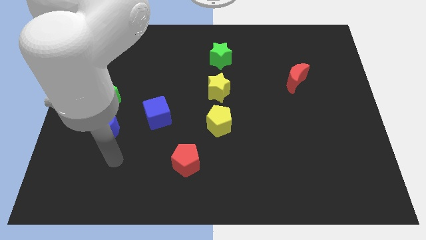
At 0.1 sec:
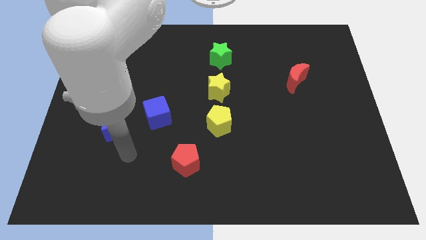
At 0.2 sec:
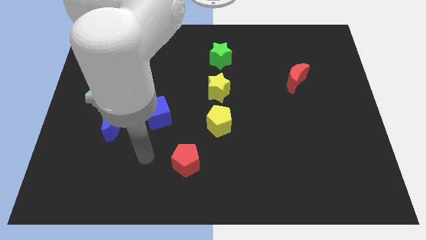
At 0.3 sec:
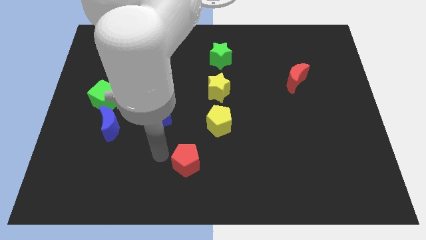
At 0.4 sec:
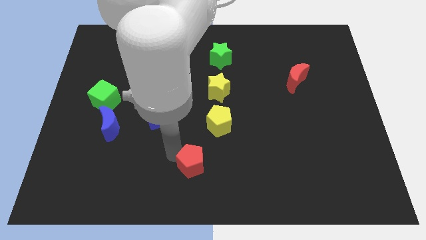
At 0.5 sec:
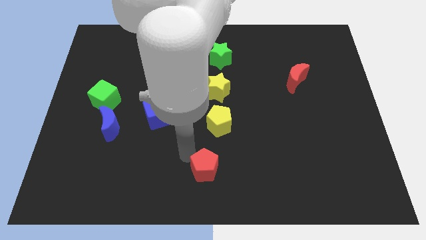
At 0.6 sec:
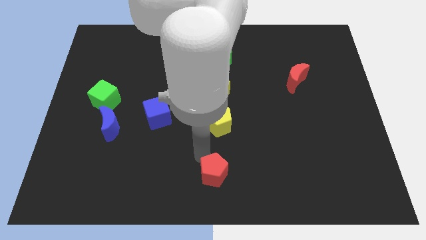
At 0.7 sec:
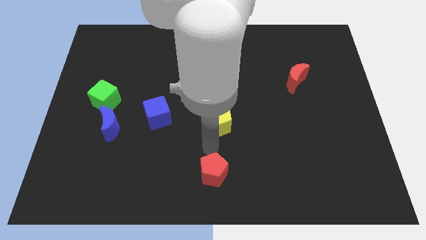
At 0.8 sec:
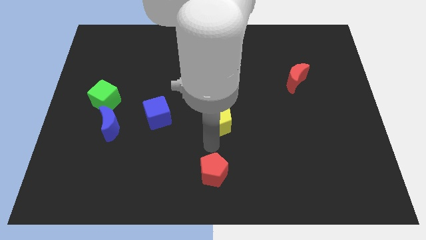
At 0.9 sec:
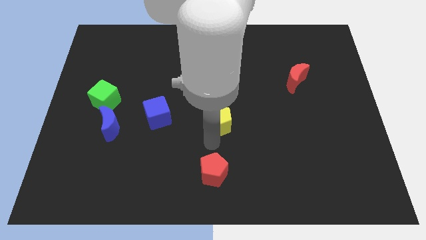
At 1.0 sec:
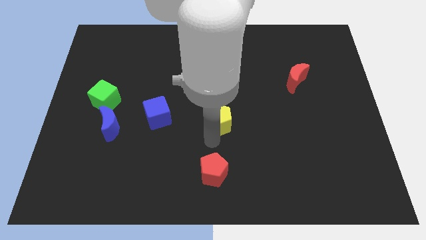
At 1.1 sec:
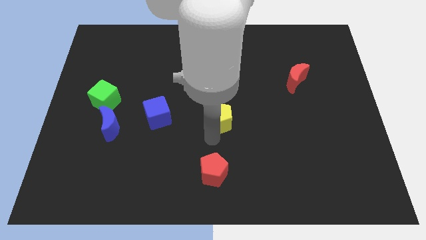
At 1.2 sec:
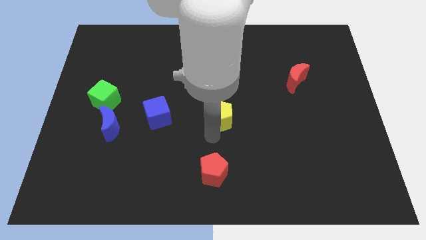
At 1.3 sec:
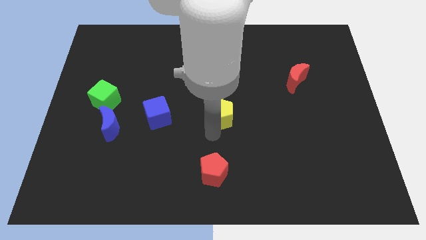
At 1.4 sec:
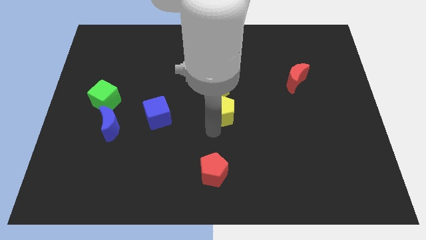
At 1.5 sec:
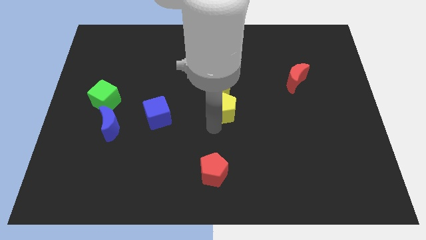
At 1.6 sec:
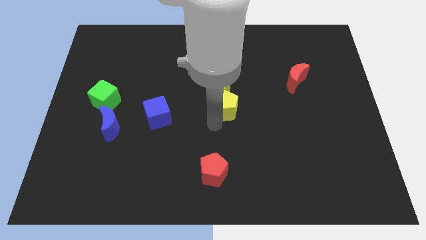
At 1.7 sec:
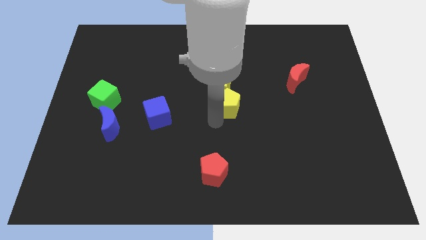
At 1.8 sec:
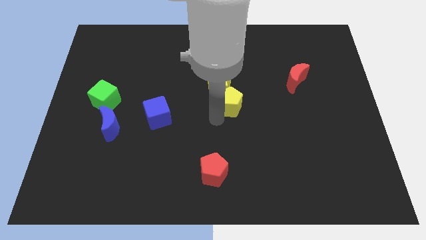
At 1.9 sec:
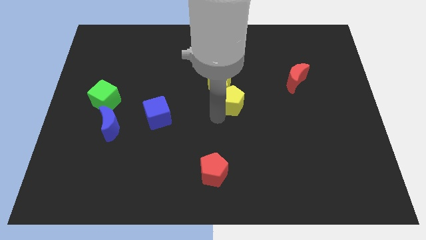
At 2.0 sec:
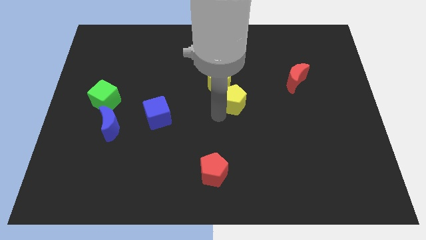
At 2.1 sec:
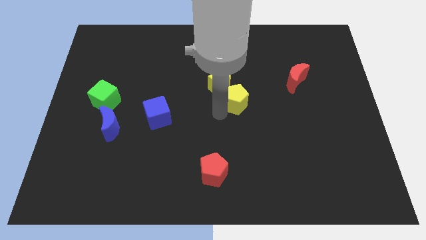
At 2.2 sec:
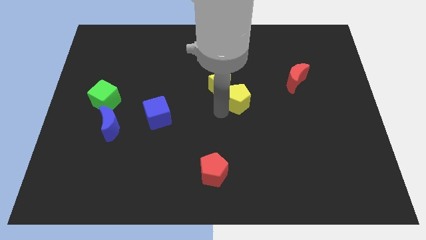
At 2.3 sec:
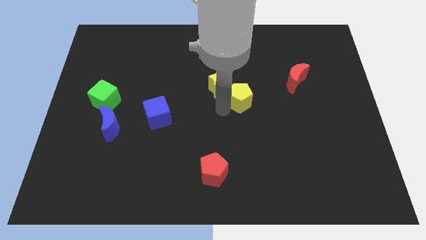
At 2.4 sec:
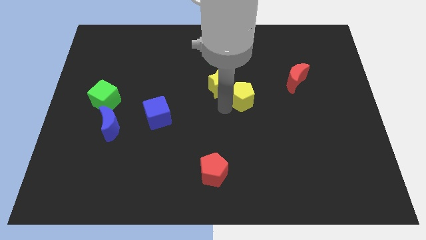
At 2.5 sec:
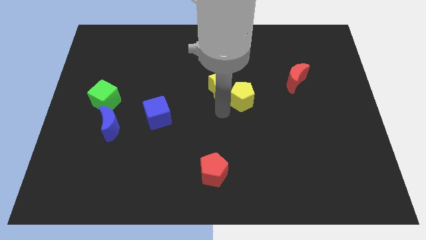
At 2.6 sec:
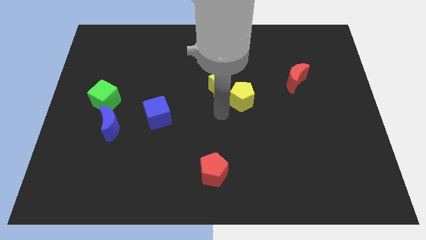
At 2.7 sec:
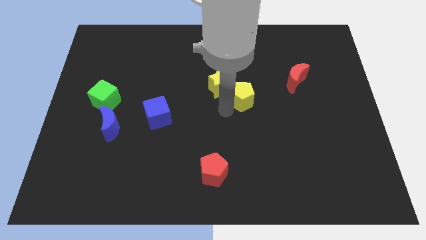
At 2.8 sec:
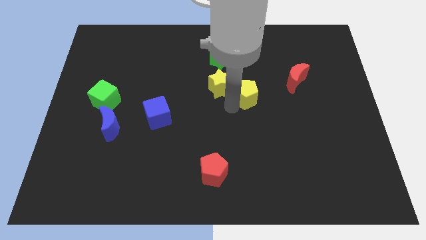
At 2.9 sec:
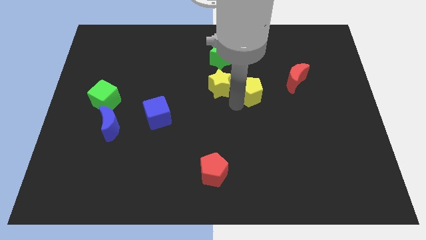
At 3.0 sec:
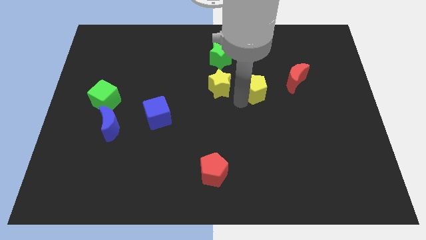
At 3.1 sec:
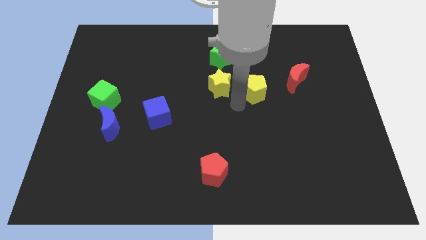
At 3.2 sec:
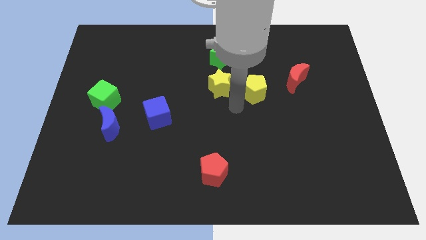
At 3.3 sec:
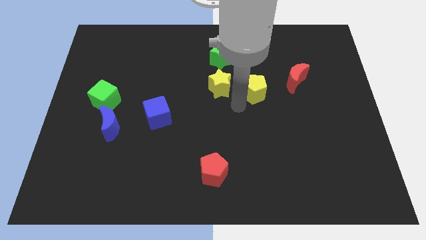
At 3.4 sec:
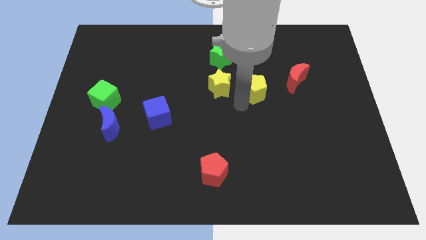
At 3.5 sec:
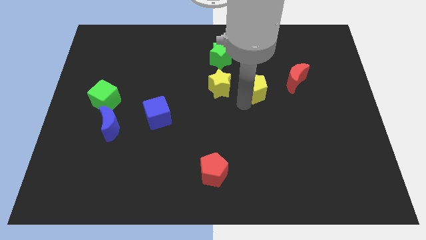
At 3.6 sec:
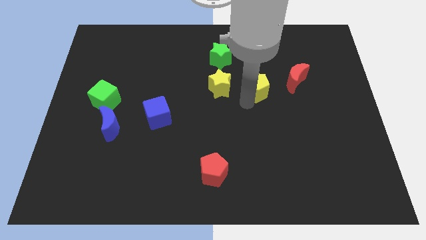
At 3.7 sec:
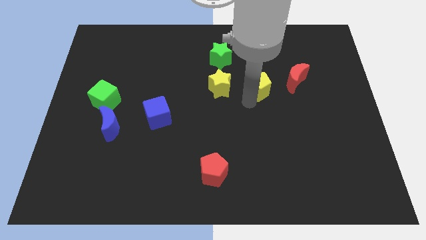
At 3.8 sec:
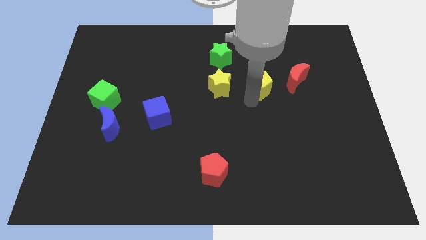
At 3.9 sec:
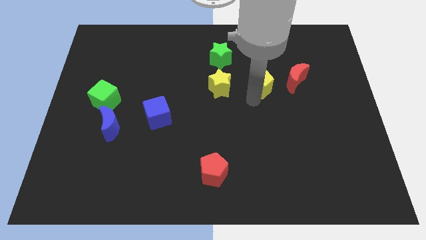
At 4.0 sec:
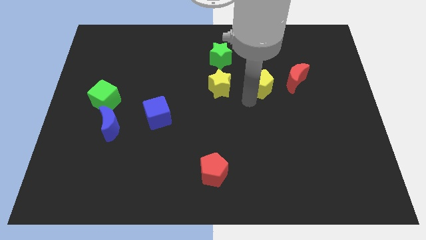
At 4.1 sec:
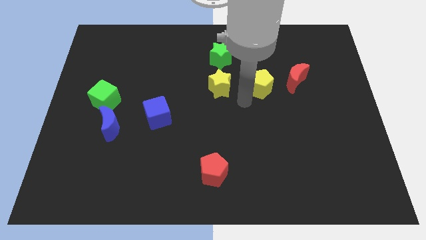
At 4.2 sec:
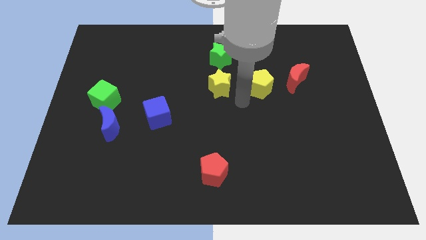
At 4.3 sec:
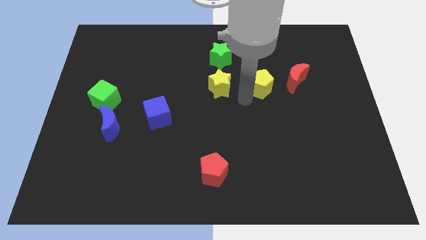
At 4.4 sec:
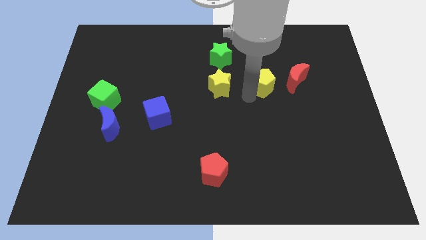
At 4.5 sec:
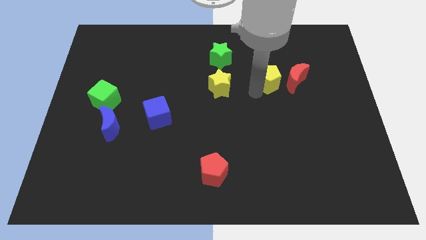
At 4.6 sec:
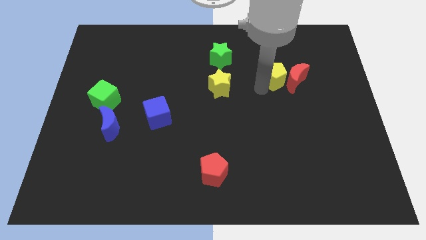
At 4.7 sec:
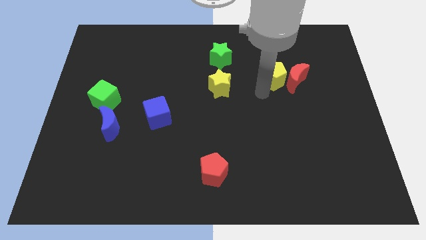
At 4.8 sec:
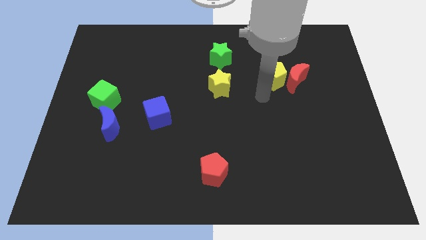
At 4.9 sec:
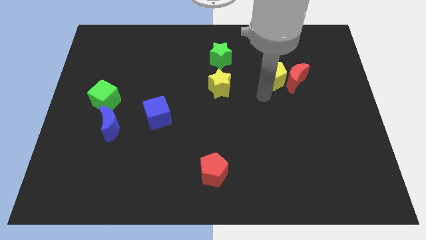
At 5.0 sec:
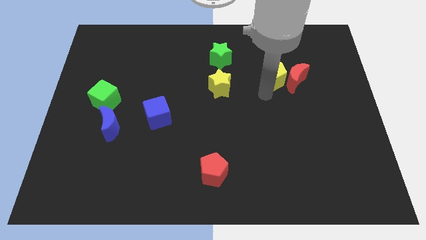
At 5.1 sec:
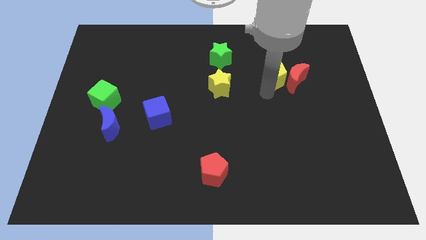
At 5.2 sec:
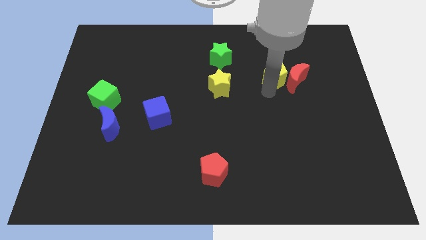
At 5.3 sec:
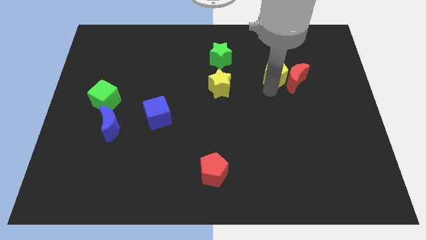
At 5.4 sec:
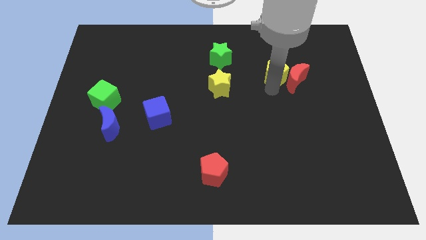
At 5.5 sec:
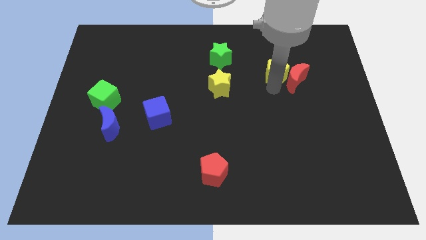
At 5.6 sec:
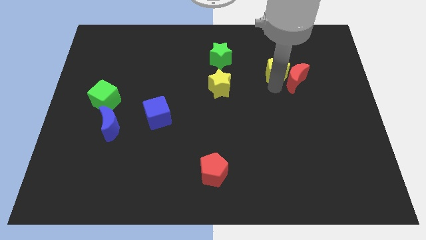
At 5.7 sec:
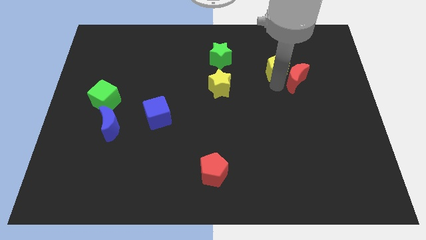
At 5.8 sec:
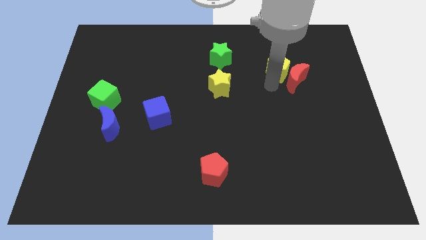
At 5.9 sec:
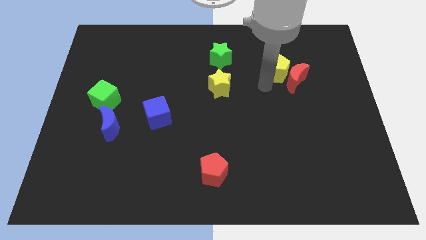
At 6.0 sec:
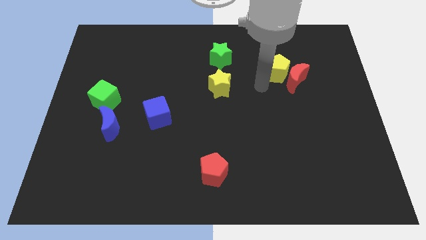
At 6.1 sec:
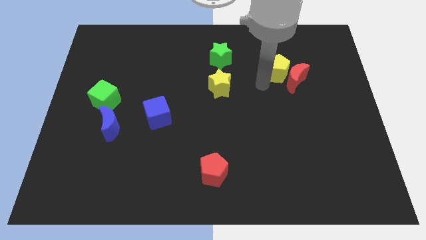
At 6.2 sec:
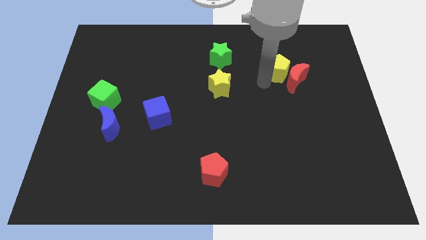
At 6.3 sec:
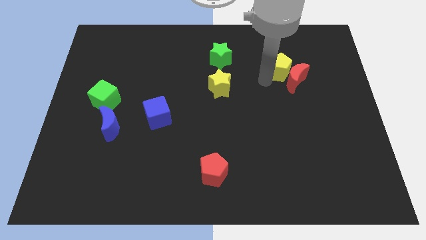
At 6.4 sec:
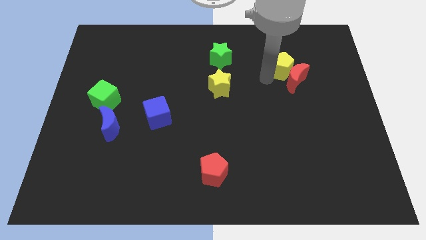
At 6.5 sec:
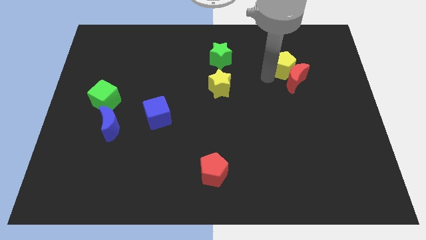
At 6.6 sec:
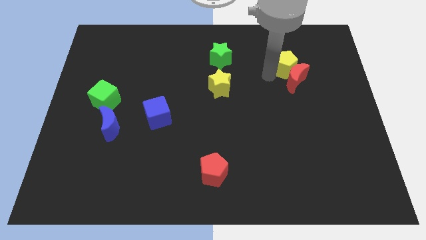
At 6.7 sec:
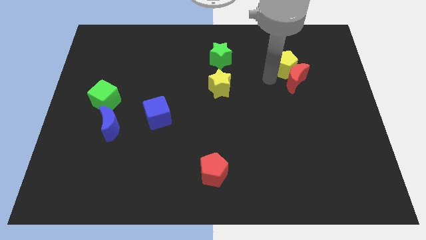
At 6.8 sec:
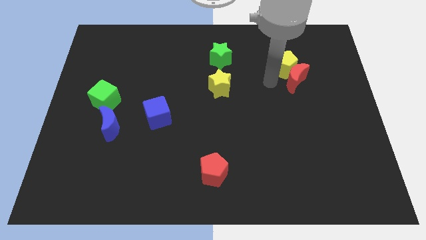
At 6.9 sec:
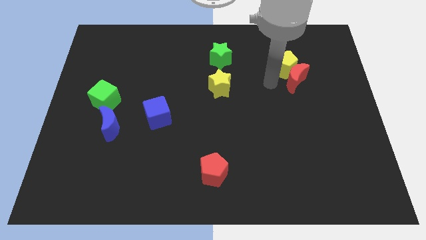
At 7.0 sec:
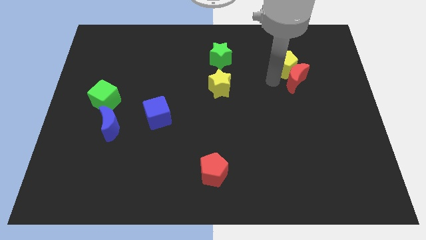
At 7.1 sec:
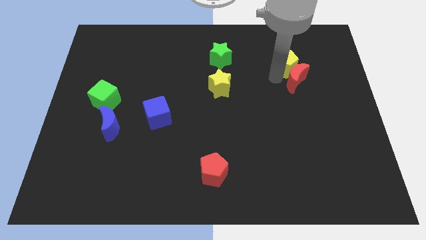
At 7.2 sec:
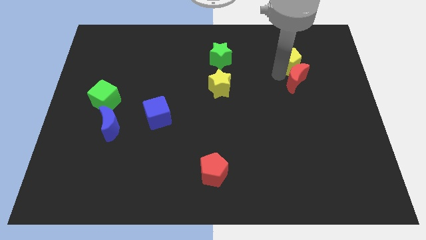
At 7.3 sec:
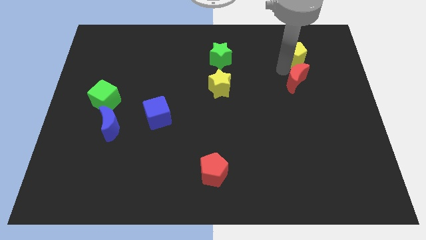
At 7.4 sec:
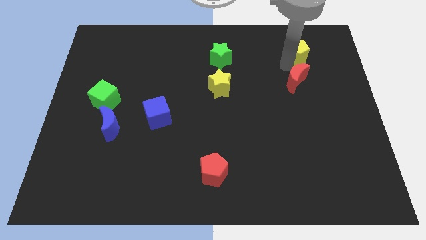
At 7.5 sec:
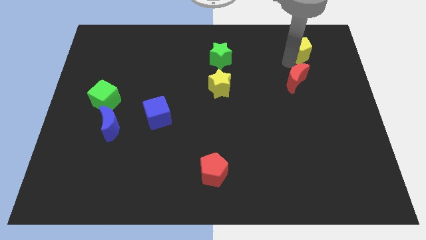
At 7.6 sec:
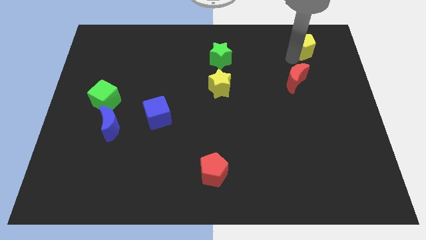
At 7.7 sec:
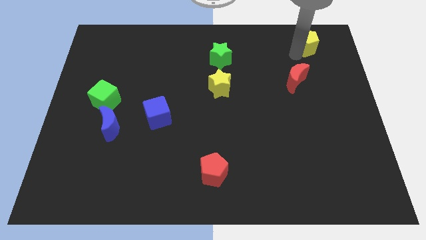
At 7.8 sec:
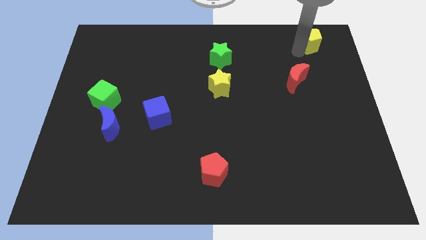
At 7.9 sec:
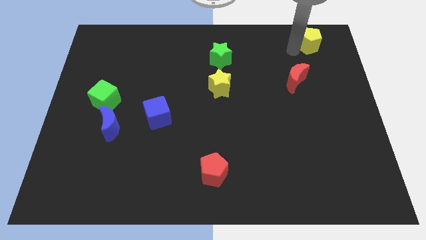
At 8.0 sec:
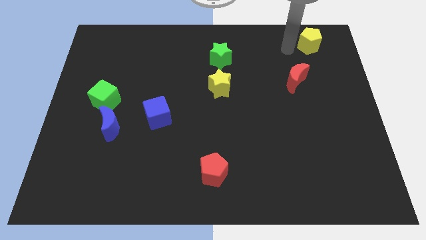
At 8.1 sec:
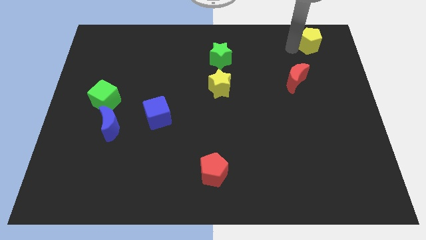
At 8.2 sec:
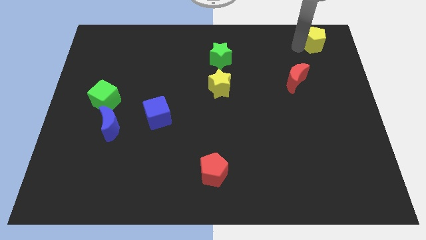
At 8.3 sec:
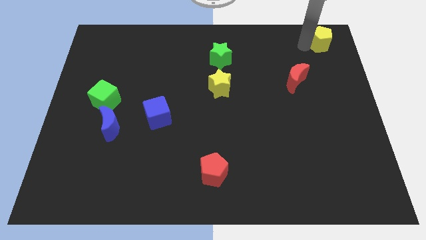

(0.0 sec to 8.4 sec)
push the yellow pentagon to the top right corner
